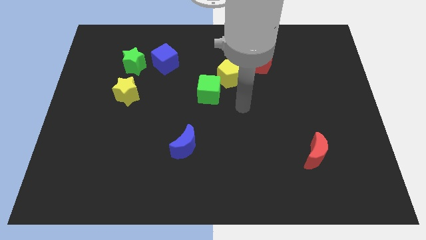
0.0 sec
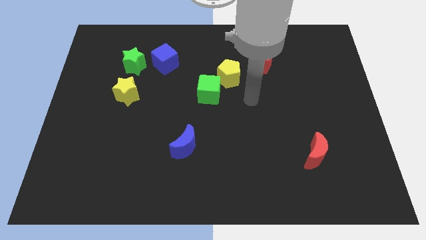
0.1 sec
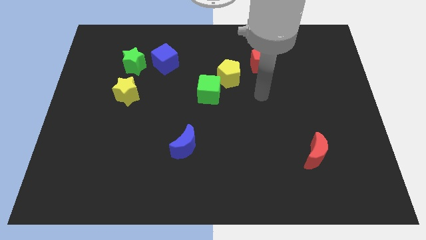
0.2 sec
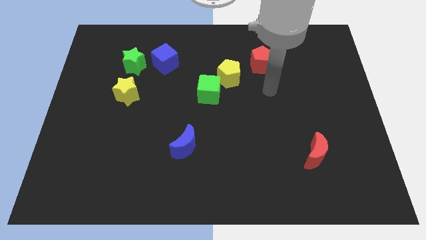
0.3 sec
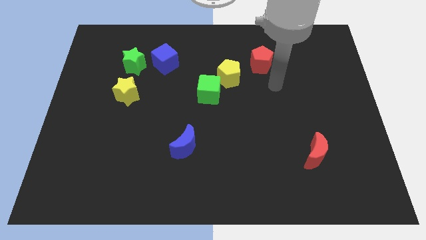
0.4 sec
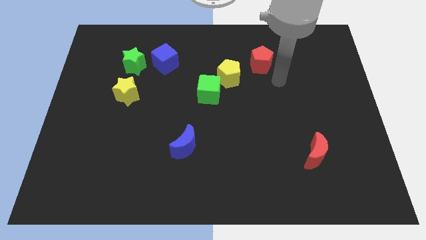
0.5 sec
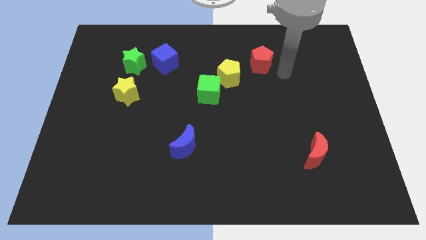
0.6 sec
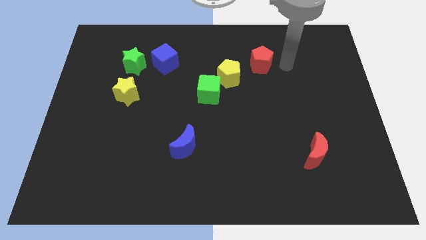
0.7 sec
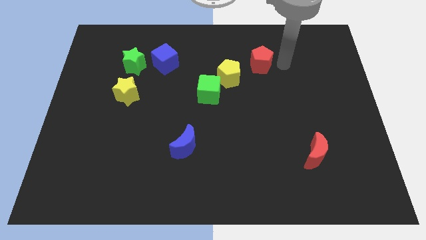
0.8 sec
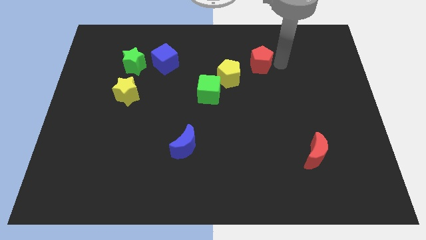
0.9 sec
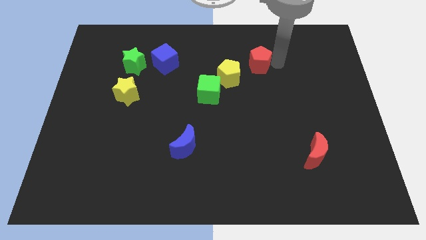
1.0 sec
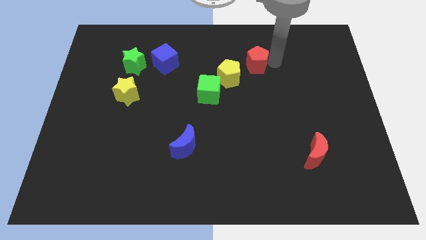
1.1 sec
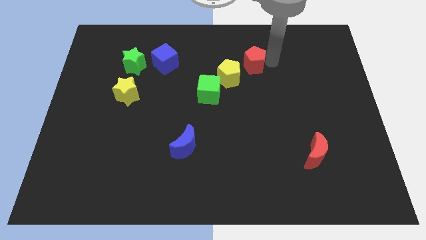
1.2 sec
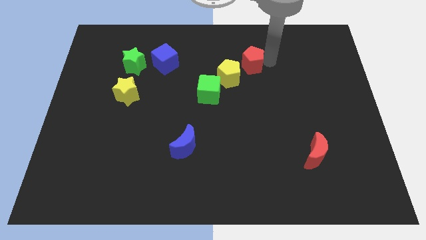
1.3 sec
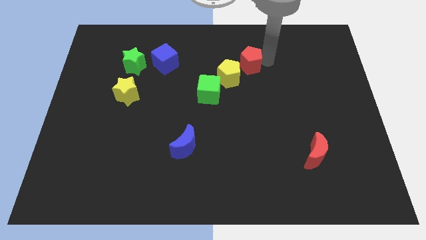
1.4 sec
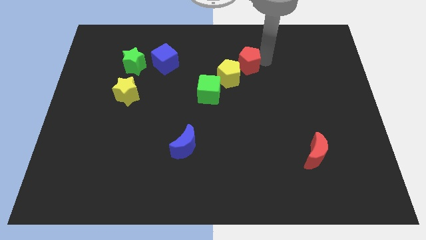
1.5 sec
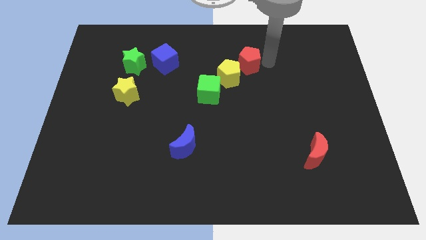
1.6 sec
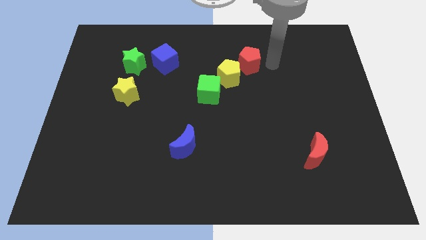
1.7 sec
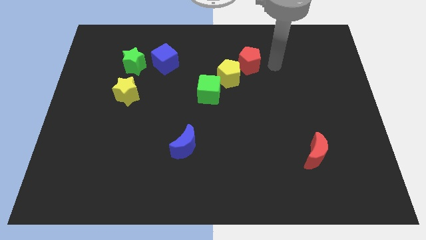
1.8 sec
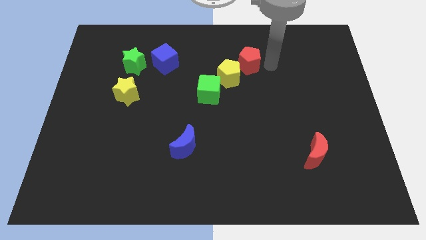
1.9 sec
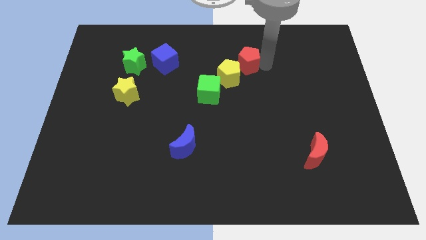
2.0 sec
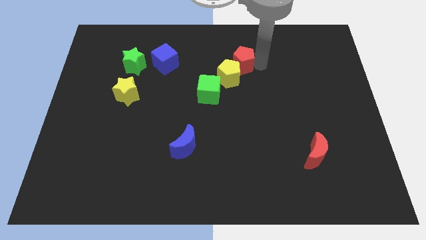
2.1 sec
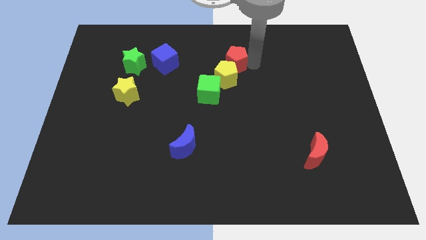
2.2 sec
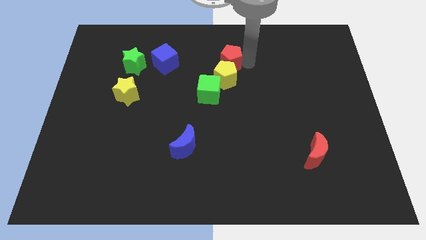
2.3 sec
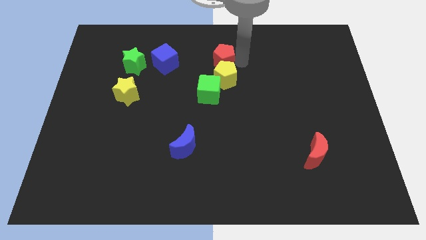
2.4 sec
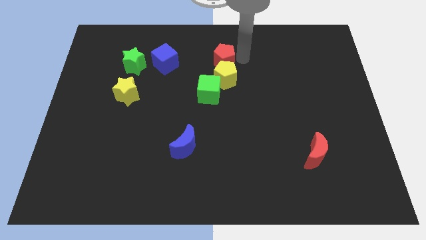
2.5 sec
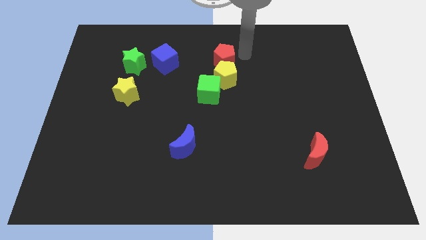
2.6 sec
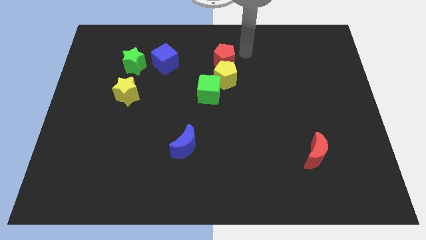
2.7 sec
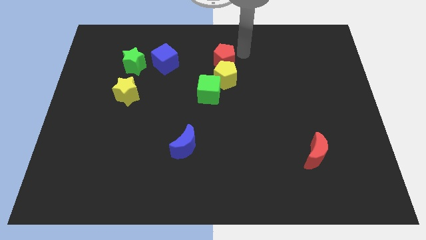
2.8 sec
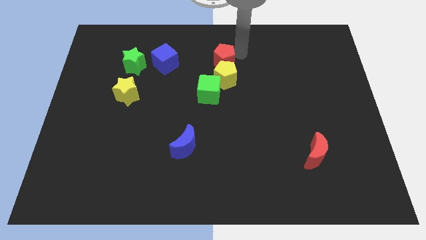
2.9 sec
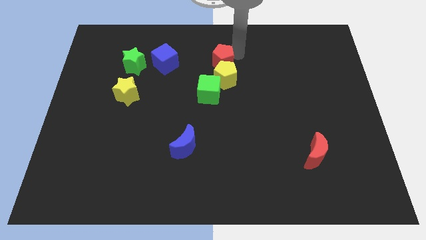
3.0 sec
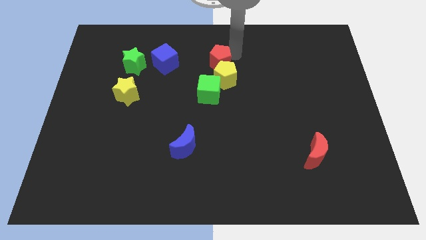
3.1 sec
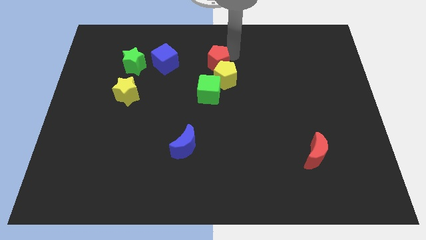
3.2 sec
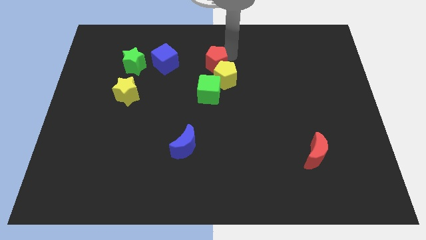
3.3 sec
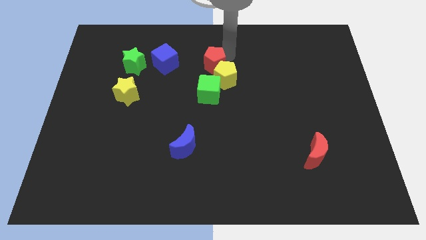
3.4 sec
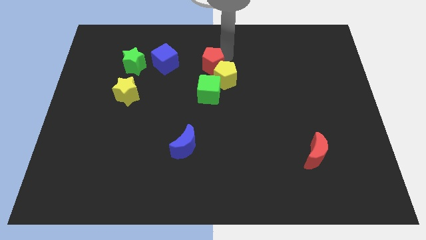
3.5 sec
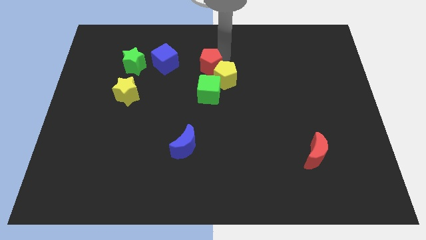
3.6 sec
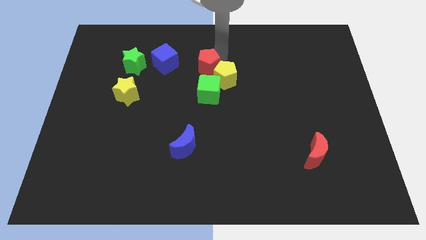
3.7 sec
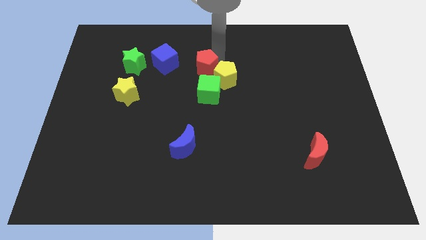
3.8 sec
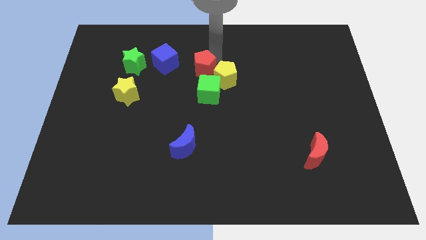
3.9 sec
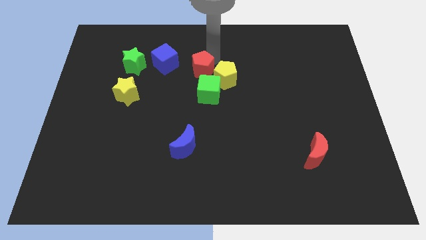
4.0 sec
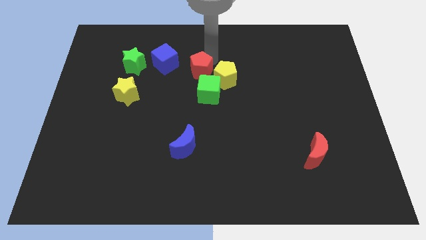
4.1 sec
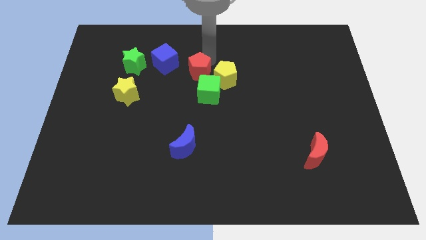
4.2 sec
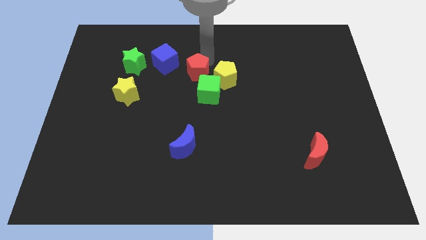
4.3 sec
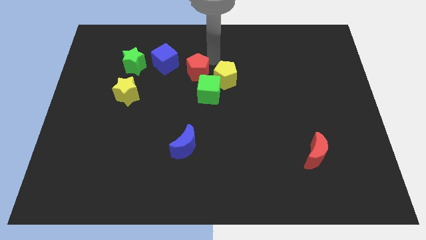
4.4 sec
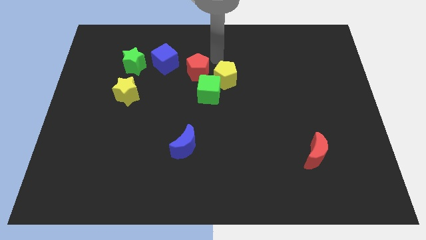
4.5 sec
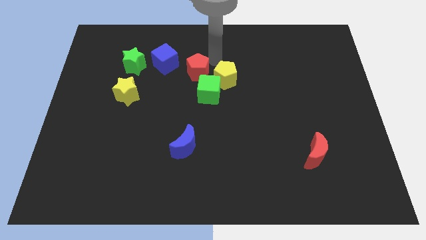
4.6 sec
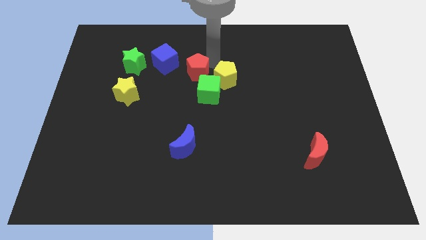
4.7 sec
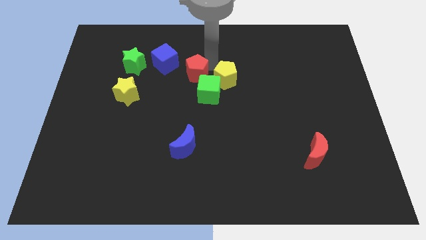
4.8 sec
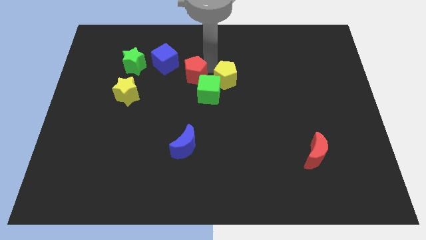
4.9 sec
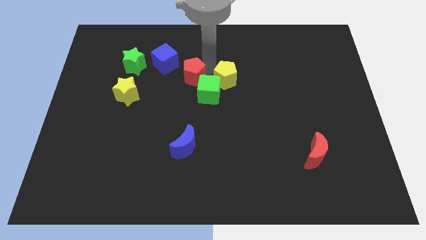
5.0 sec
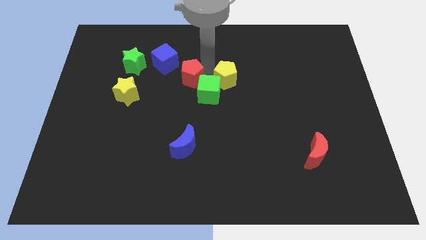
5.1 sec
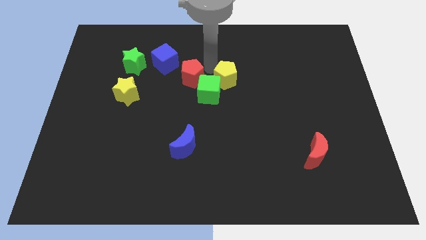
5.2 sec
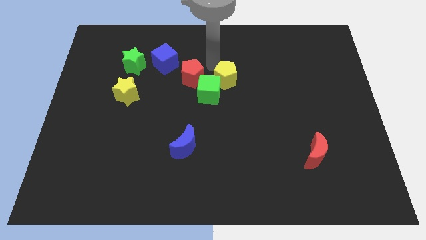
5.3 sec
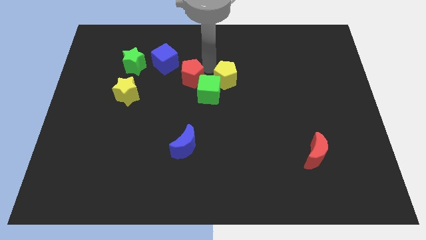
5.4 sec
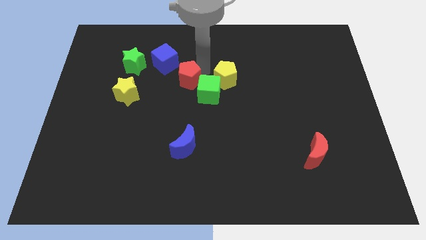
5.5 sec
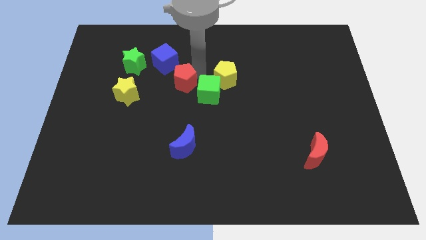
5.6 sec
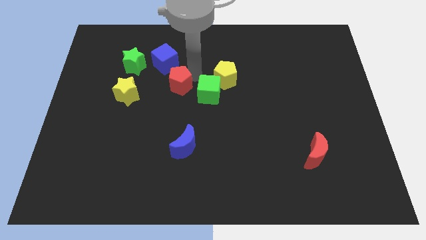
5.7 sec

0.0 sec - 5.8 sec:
move the red pentagon to the bottom side of the blue cube

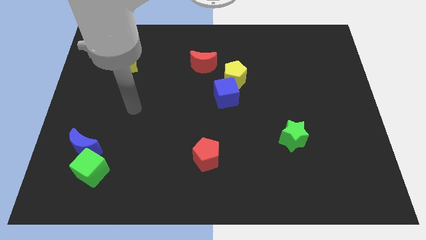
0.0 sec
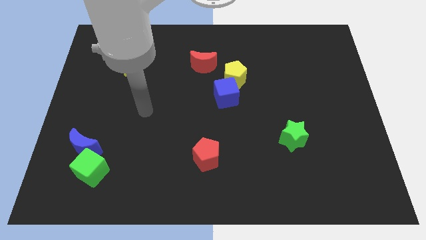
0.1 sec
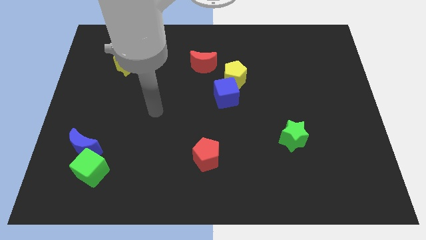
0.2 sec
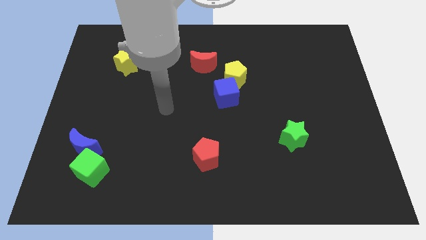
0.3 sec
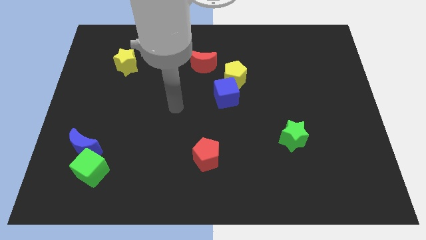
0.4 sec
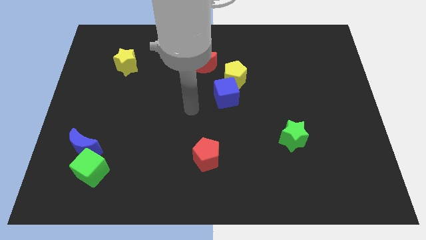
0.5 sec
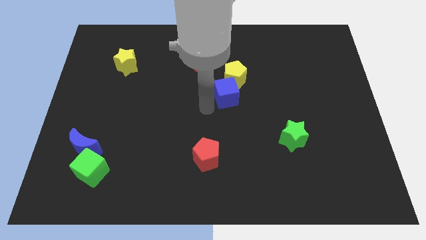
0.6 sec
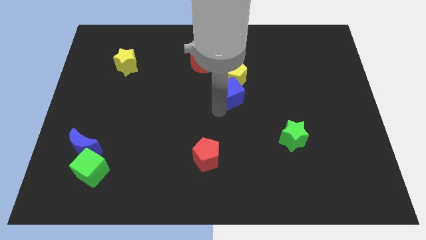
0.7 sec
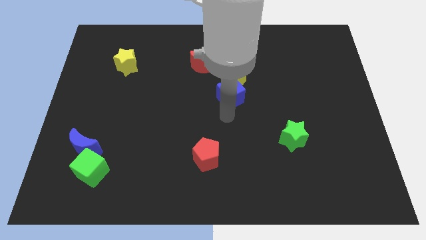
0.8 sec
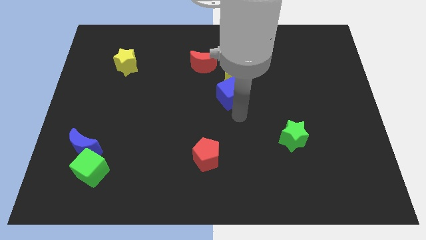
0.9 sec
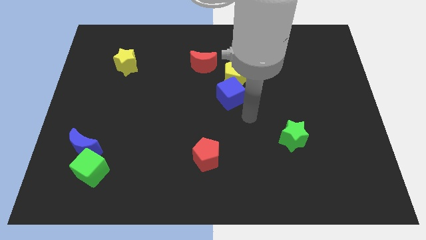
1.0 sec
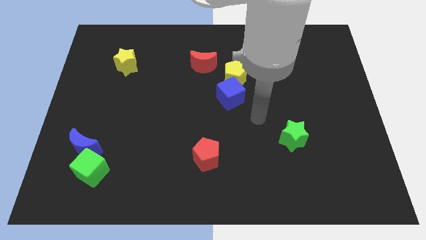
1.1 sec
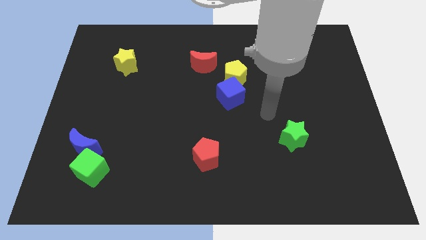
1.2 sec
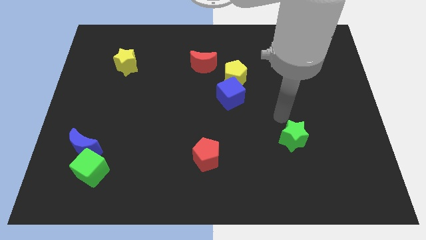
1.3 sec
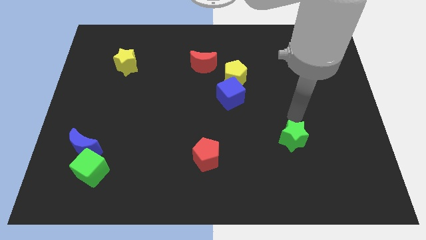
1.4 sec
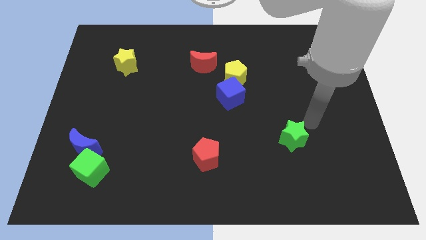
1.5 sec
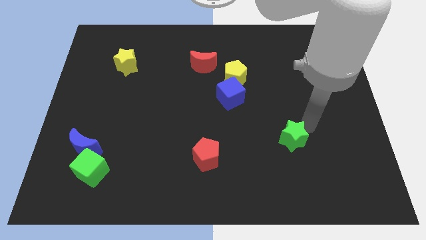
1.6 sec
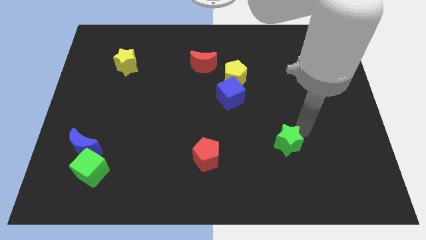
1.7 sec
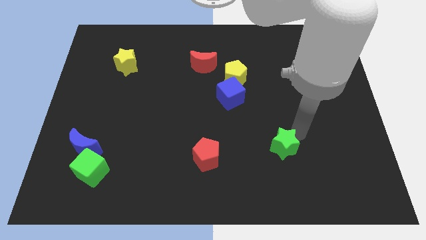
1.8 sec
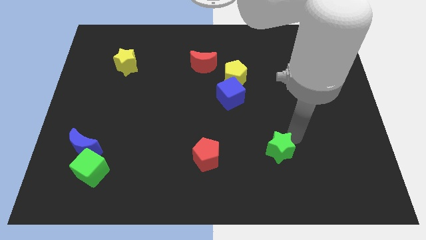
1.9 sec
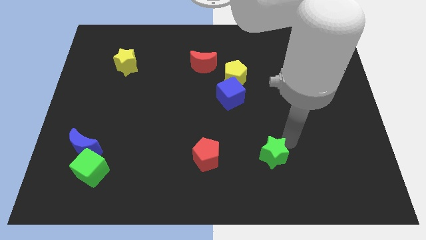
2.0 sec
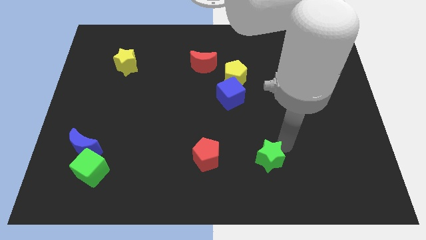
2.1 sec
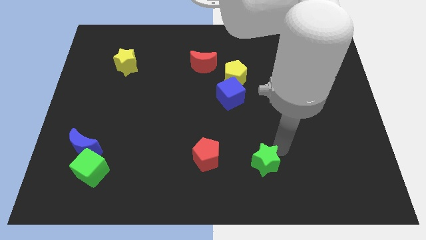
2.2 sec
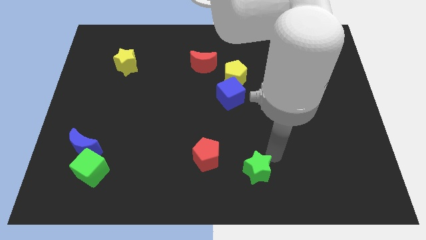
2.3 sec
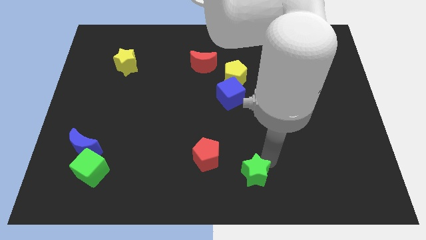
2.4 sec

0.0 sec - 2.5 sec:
put the green star diagonally down and to the right of the red pentagon
